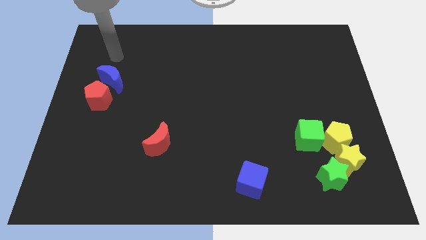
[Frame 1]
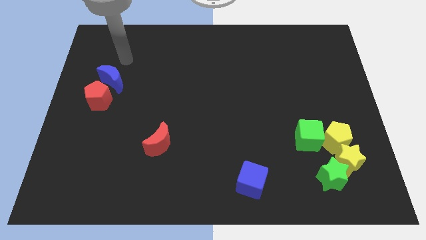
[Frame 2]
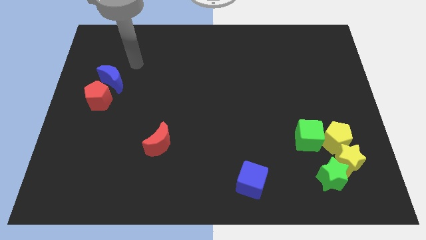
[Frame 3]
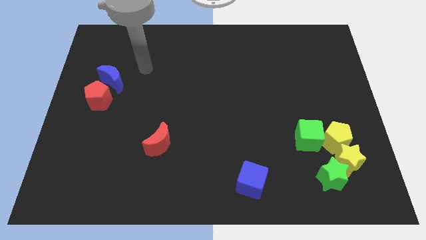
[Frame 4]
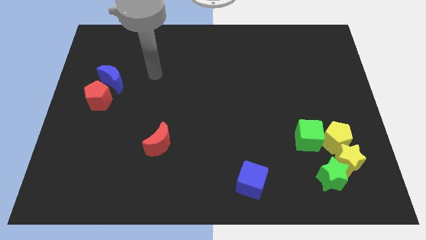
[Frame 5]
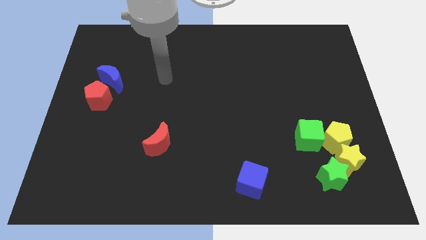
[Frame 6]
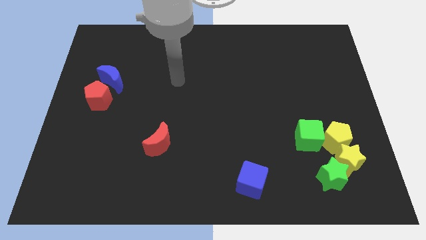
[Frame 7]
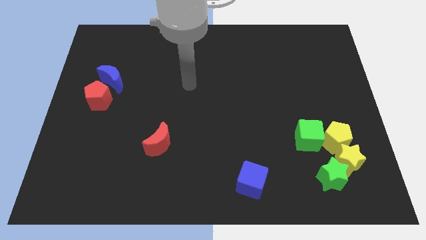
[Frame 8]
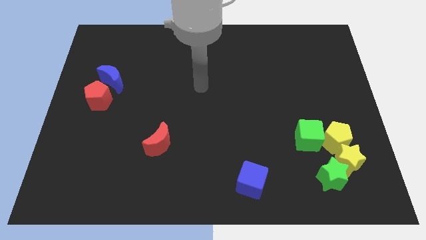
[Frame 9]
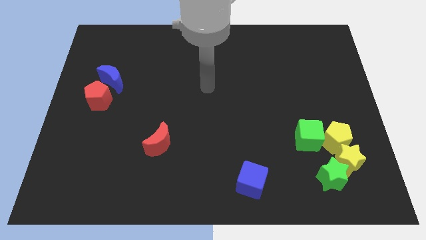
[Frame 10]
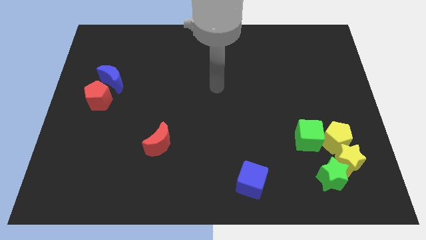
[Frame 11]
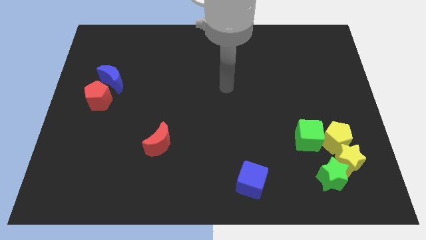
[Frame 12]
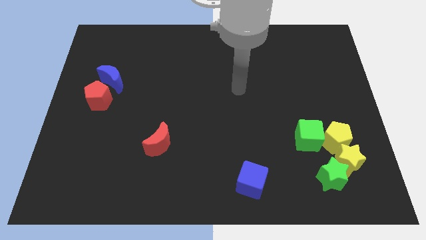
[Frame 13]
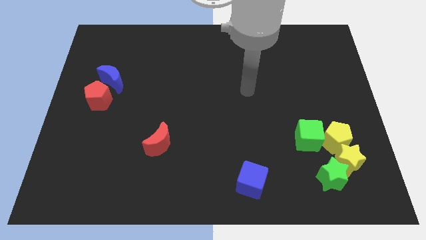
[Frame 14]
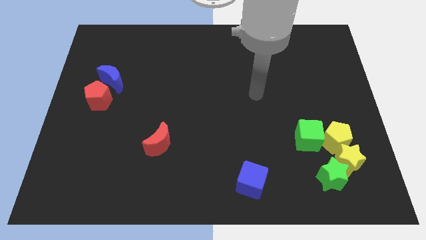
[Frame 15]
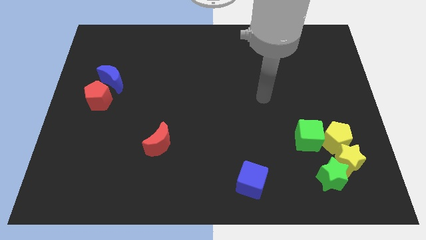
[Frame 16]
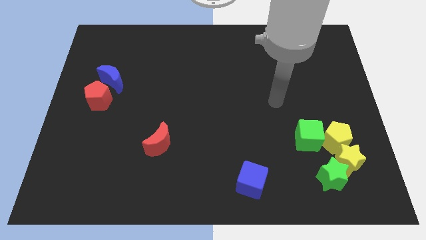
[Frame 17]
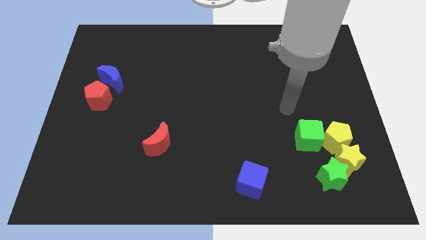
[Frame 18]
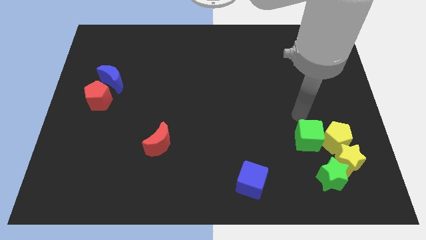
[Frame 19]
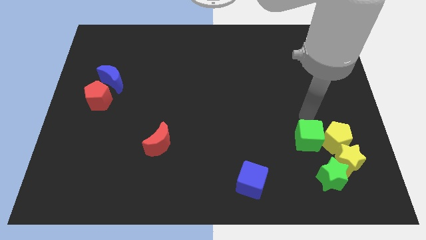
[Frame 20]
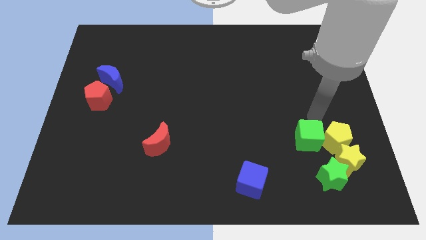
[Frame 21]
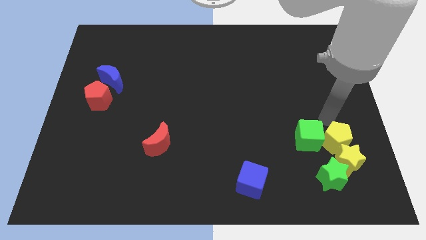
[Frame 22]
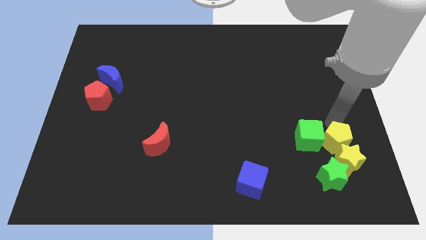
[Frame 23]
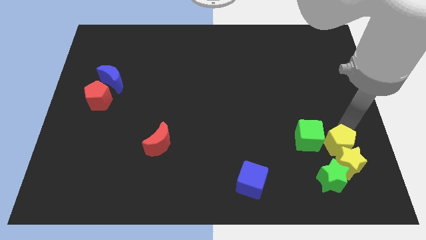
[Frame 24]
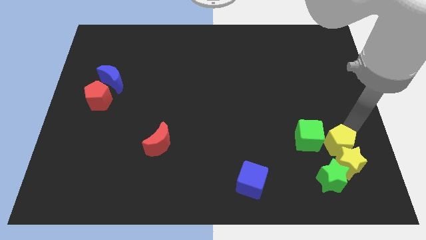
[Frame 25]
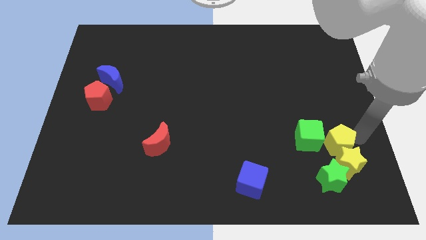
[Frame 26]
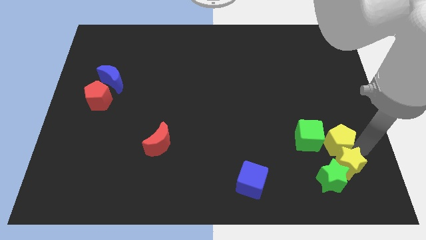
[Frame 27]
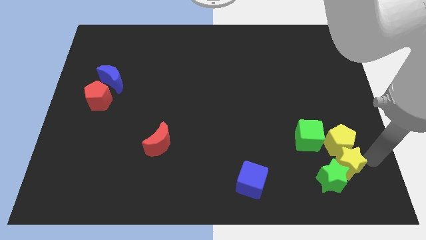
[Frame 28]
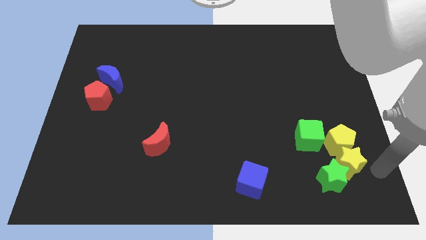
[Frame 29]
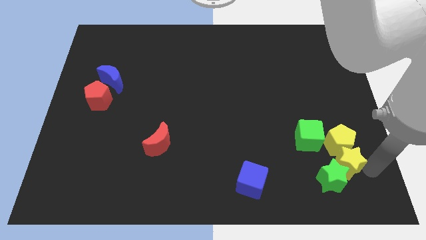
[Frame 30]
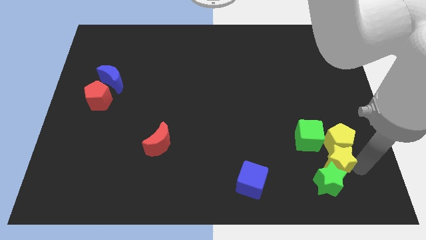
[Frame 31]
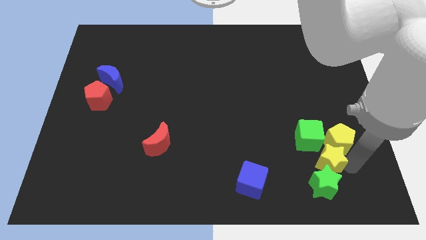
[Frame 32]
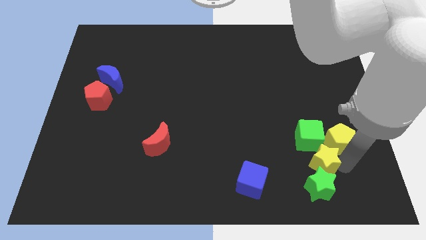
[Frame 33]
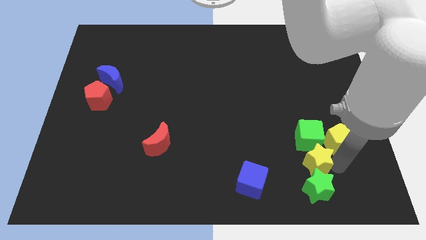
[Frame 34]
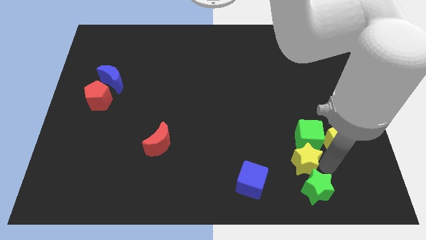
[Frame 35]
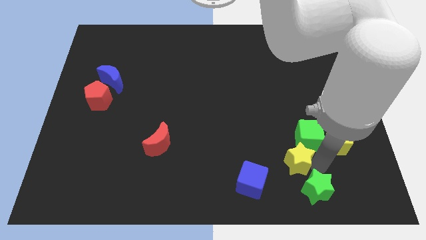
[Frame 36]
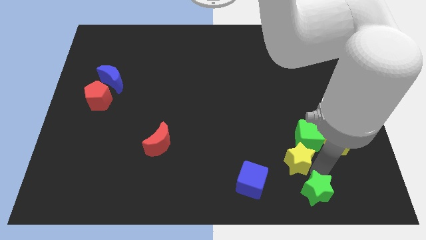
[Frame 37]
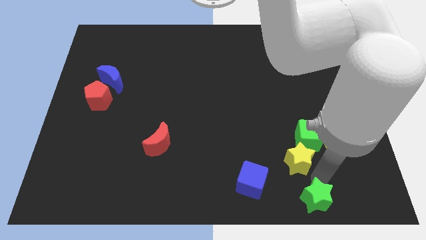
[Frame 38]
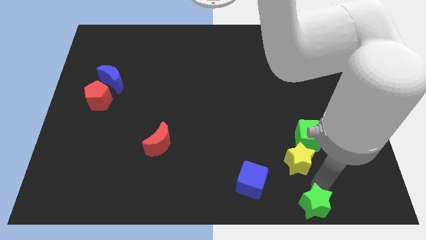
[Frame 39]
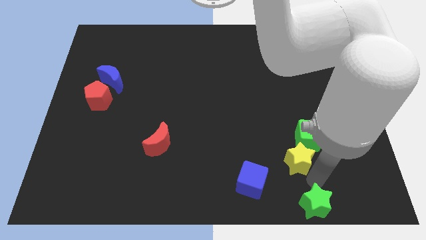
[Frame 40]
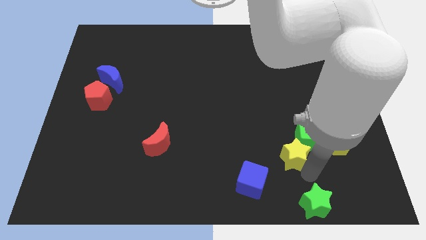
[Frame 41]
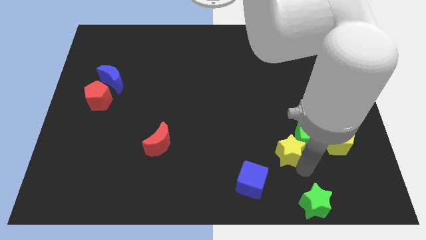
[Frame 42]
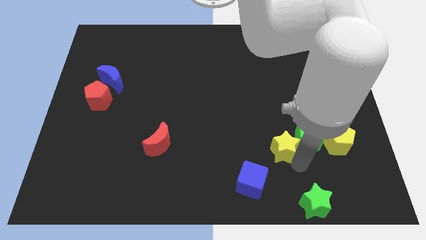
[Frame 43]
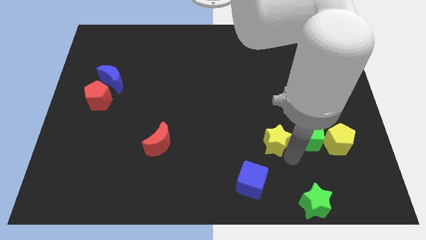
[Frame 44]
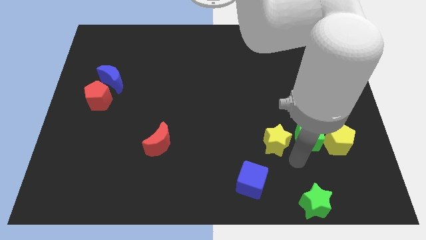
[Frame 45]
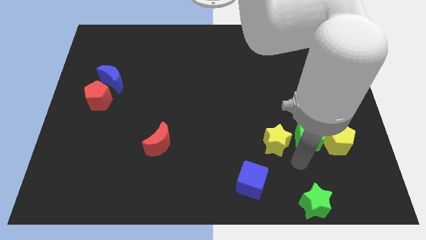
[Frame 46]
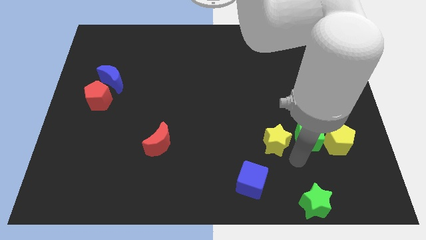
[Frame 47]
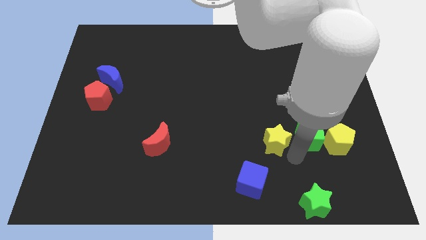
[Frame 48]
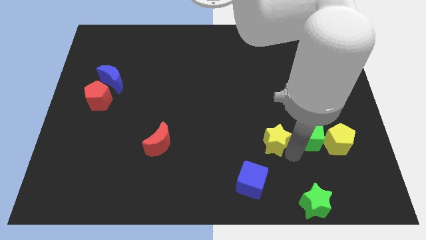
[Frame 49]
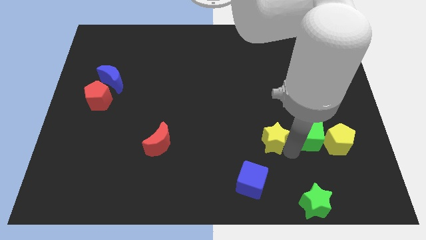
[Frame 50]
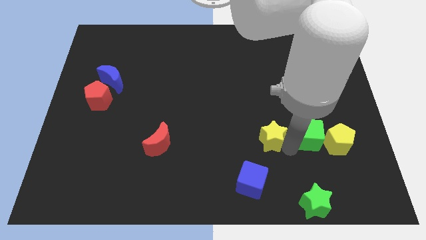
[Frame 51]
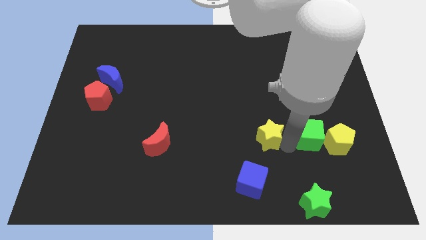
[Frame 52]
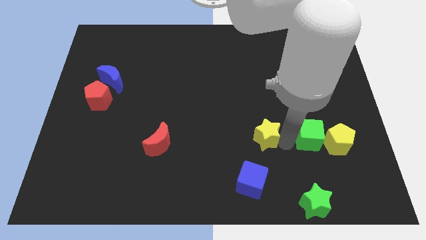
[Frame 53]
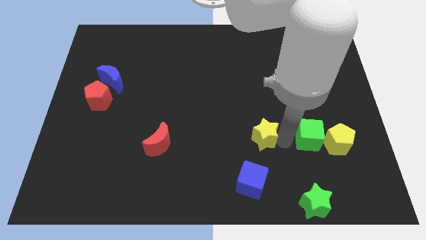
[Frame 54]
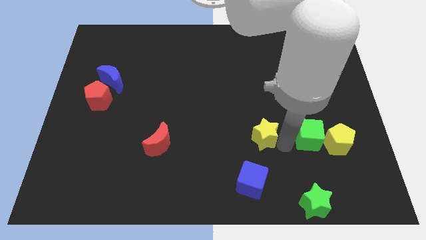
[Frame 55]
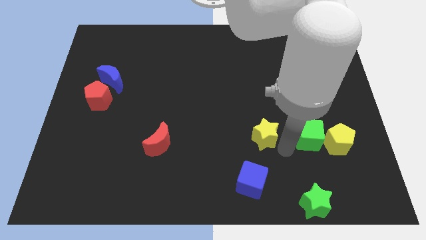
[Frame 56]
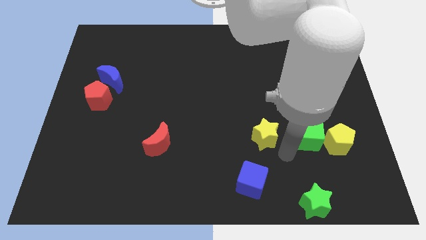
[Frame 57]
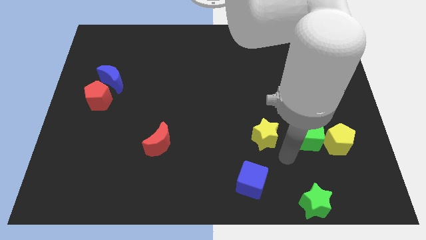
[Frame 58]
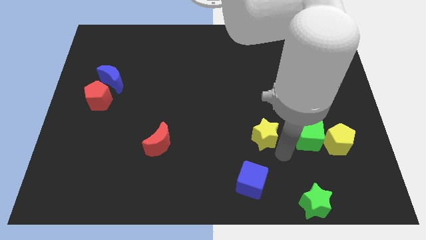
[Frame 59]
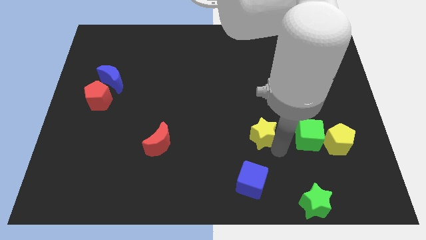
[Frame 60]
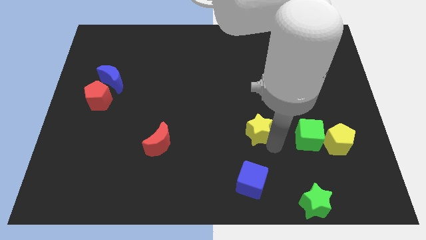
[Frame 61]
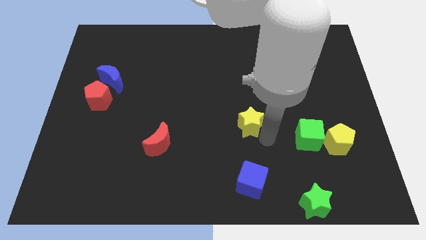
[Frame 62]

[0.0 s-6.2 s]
push the yellow star to the center

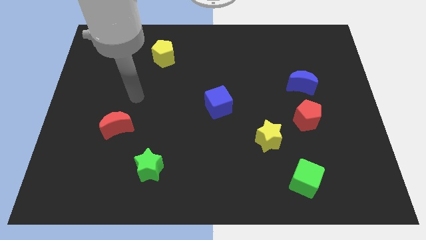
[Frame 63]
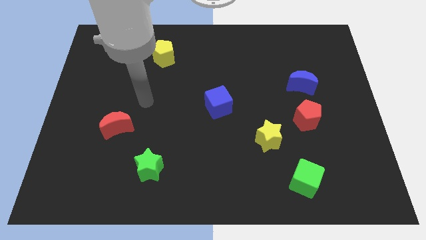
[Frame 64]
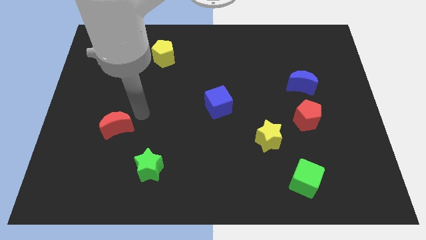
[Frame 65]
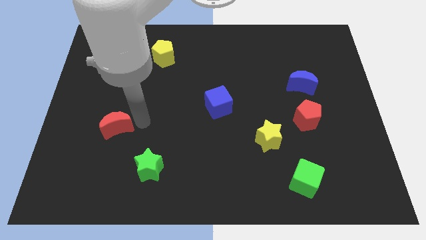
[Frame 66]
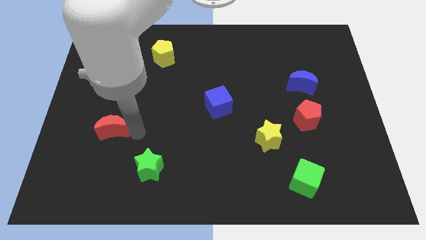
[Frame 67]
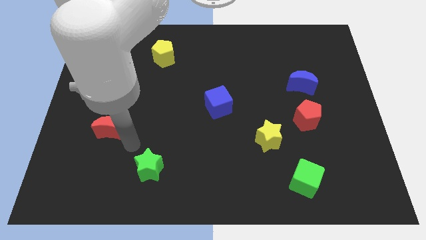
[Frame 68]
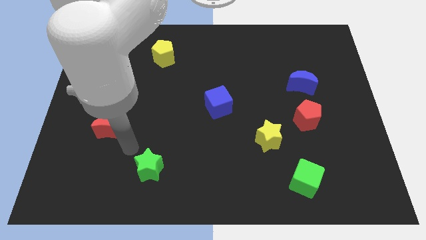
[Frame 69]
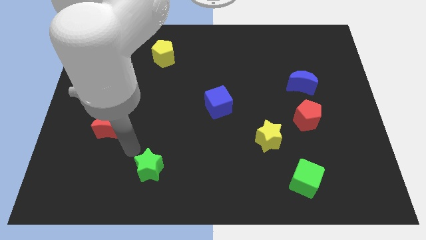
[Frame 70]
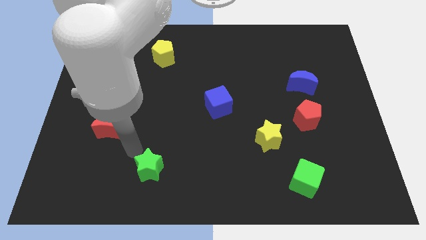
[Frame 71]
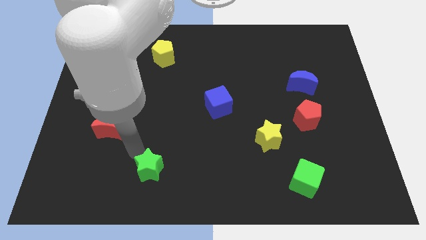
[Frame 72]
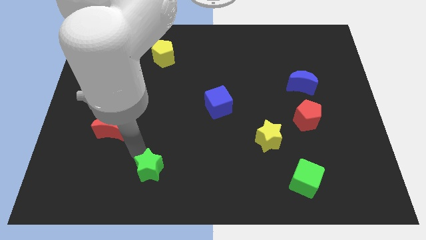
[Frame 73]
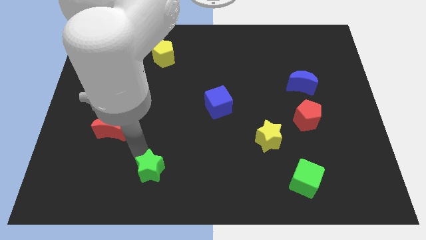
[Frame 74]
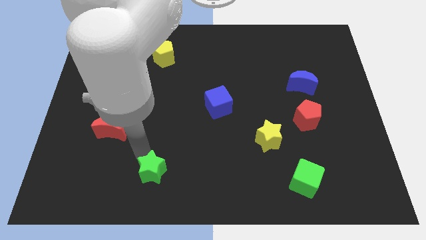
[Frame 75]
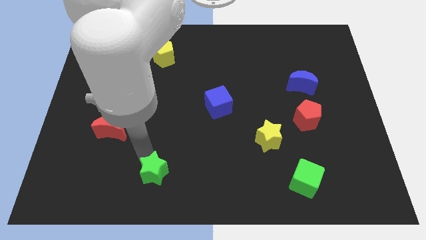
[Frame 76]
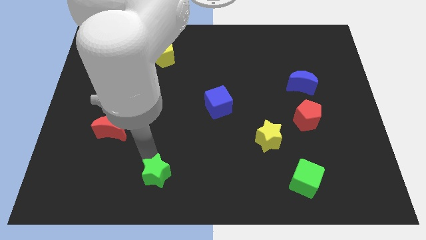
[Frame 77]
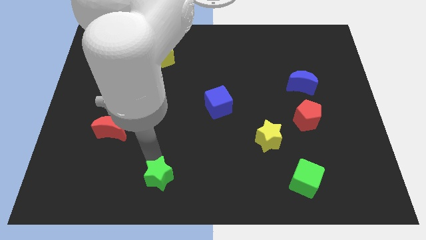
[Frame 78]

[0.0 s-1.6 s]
push the green star to the bottom side
